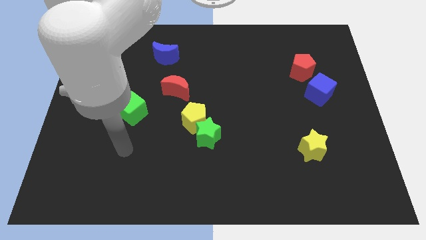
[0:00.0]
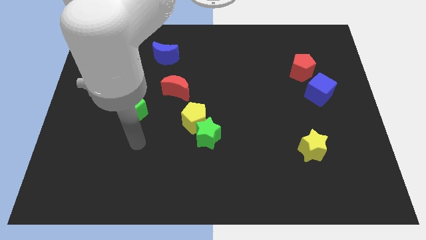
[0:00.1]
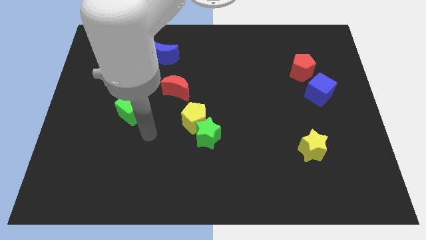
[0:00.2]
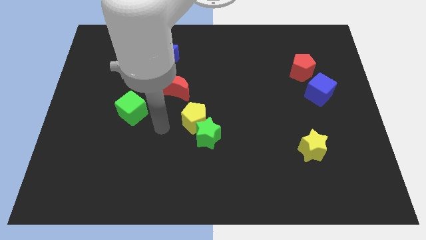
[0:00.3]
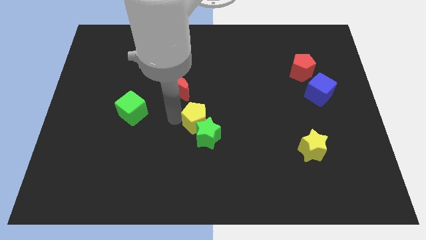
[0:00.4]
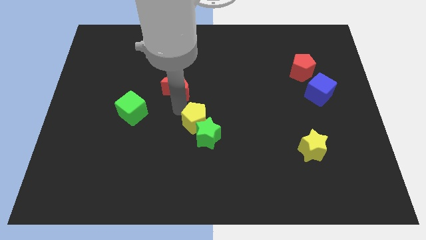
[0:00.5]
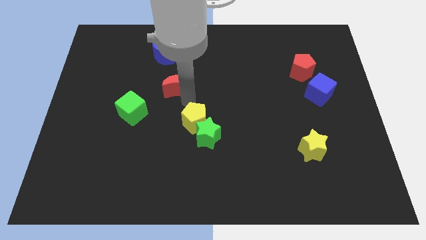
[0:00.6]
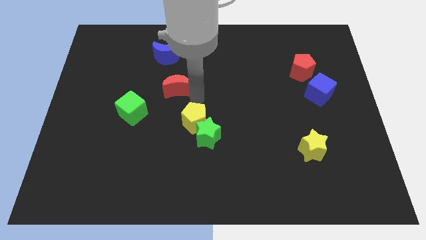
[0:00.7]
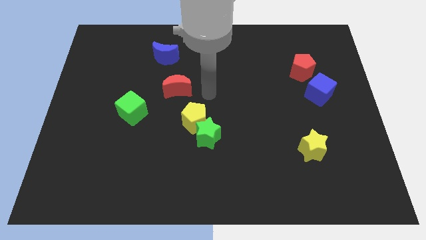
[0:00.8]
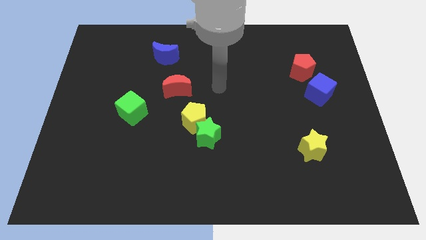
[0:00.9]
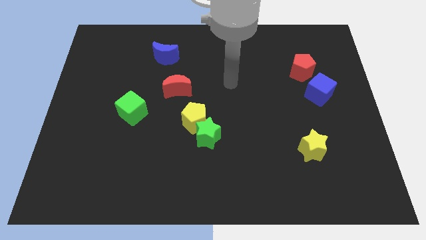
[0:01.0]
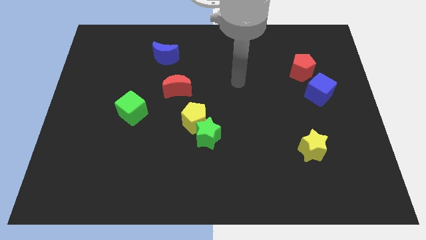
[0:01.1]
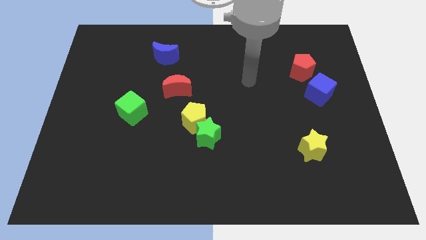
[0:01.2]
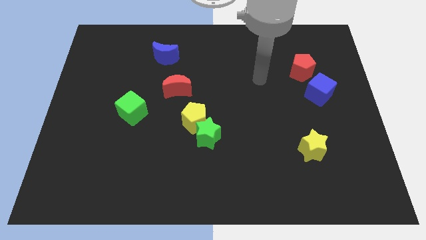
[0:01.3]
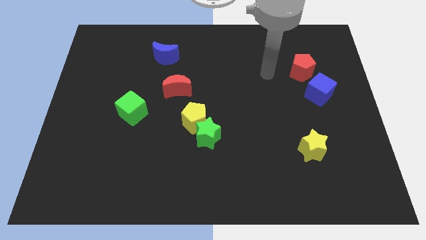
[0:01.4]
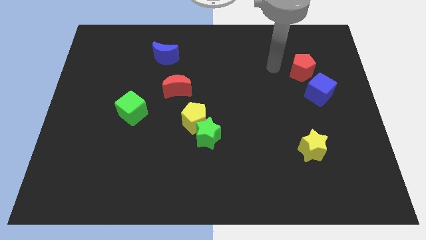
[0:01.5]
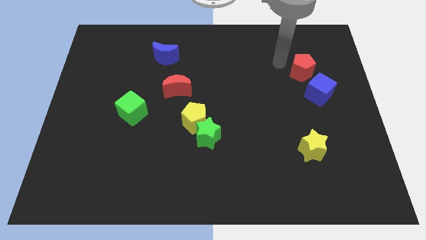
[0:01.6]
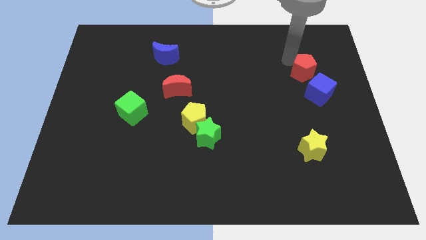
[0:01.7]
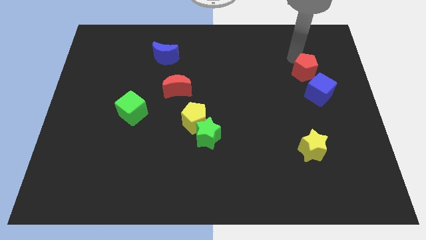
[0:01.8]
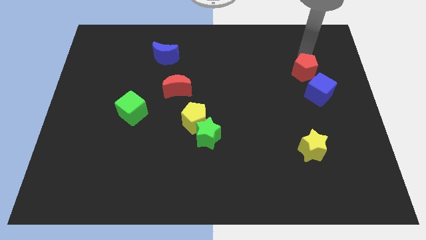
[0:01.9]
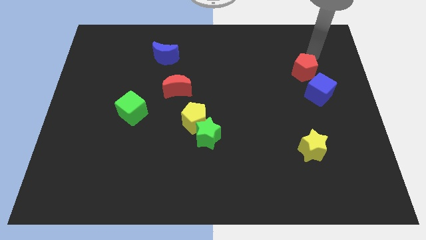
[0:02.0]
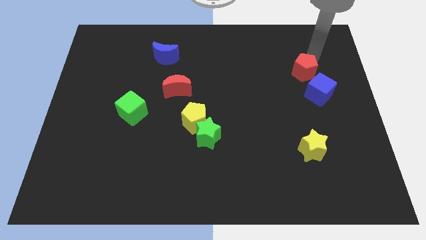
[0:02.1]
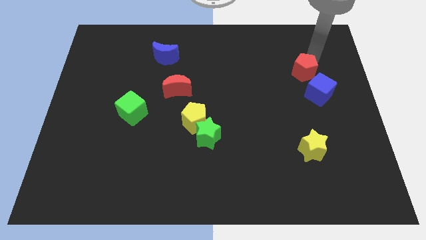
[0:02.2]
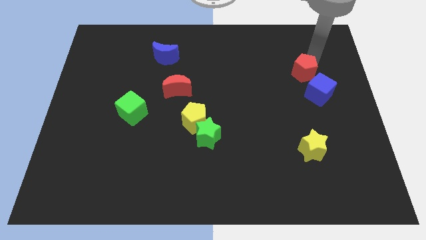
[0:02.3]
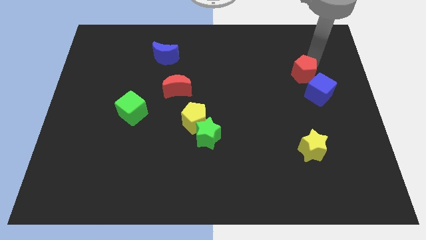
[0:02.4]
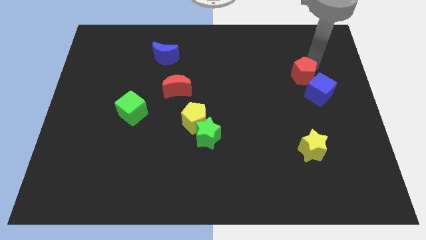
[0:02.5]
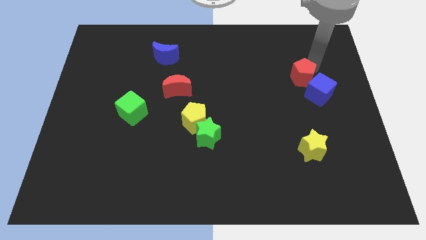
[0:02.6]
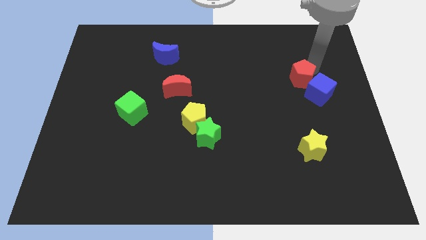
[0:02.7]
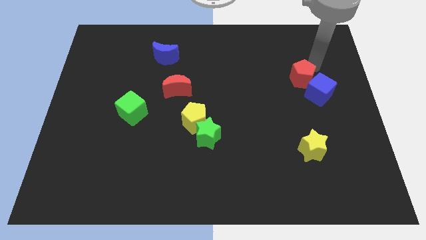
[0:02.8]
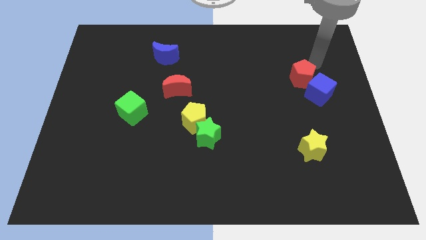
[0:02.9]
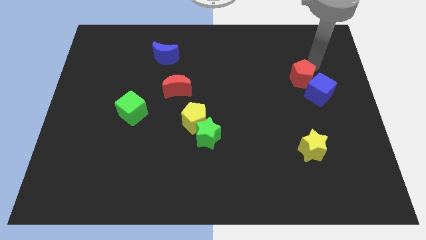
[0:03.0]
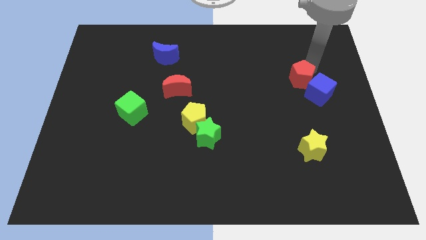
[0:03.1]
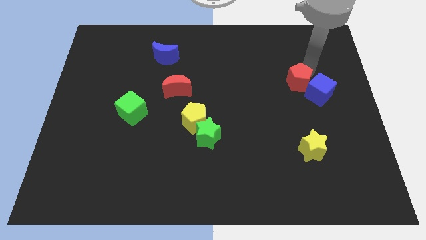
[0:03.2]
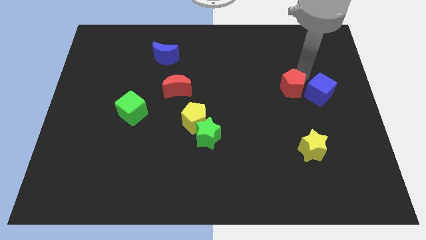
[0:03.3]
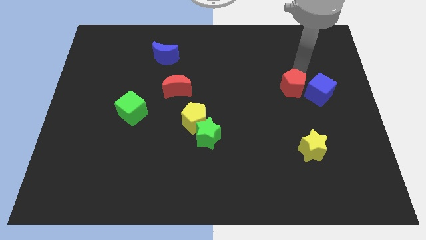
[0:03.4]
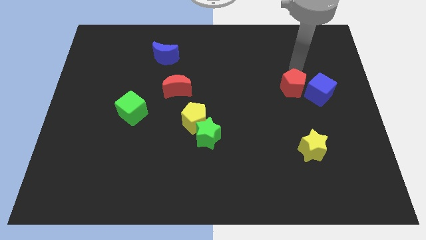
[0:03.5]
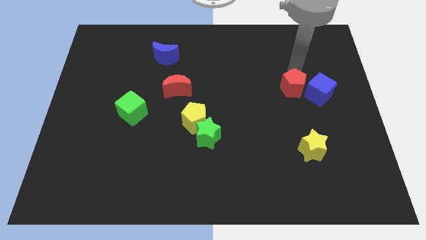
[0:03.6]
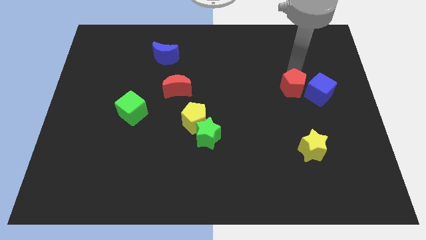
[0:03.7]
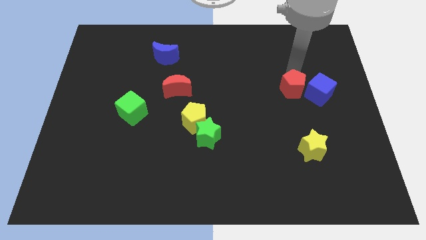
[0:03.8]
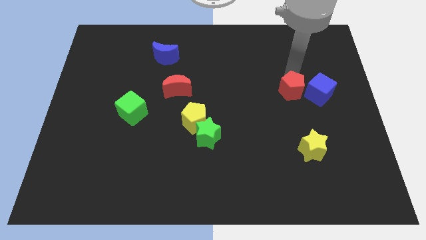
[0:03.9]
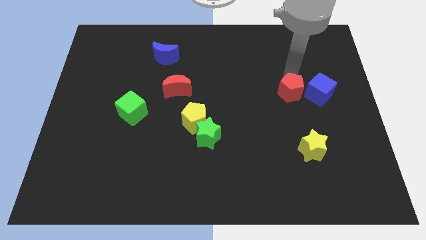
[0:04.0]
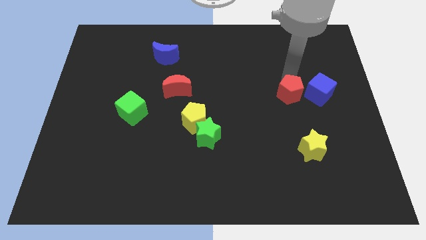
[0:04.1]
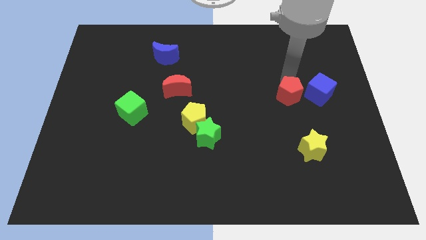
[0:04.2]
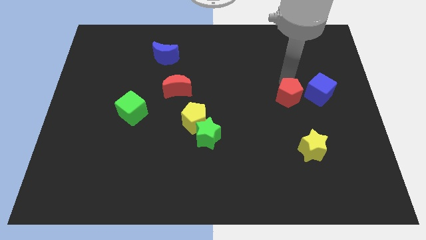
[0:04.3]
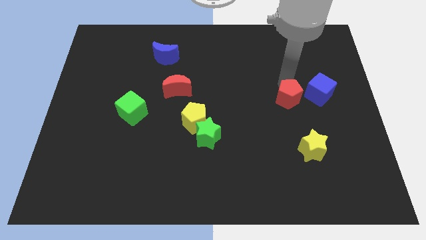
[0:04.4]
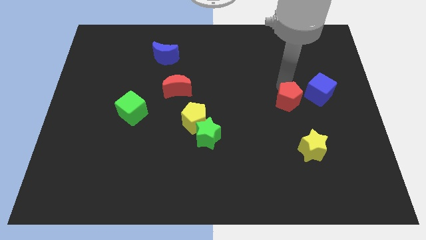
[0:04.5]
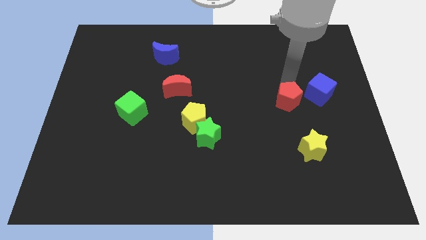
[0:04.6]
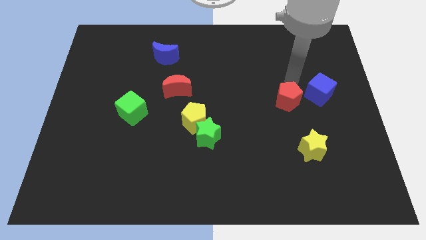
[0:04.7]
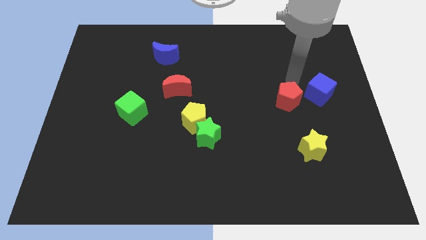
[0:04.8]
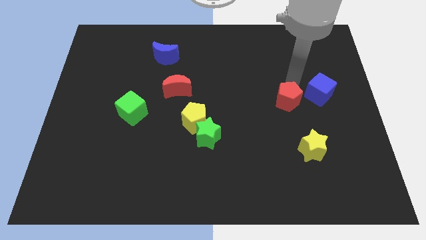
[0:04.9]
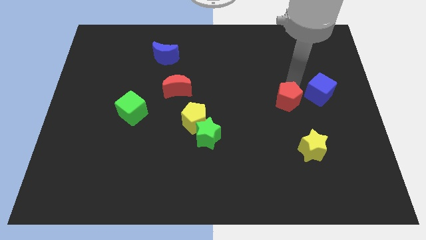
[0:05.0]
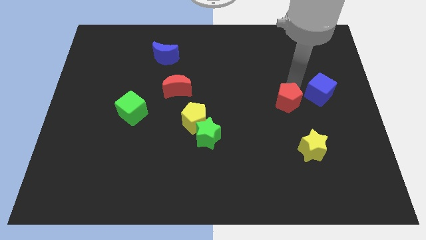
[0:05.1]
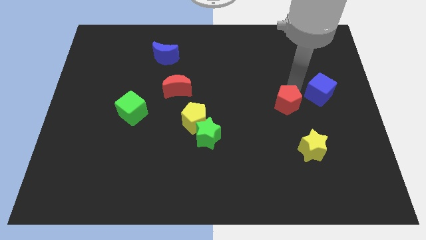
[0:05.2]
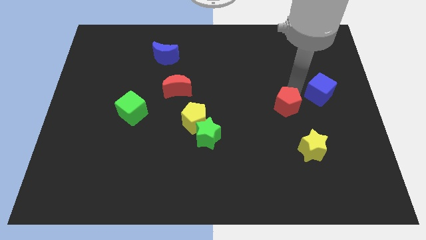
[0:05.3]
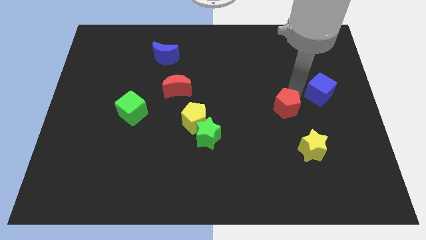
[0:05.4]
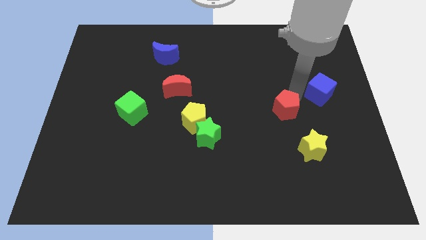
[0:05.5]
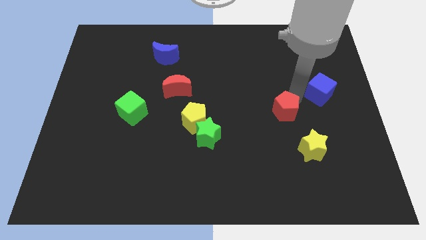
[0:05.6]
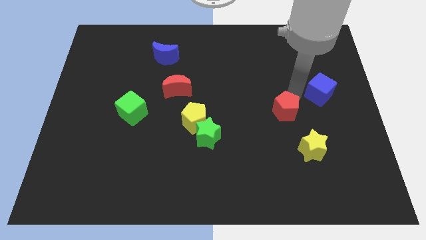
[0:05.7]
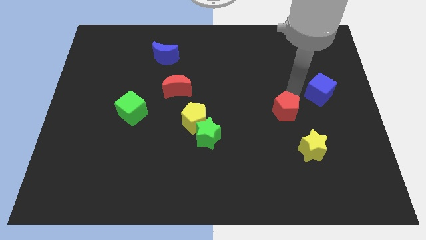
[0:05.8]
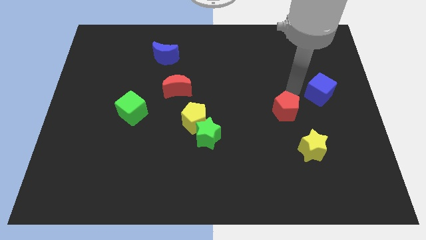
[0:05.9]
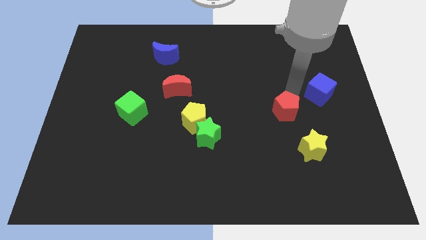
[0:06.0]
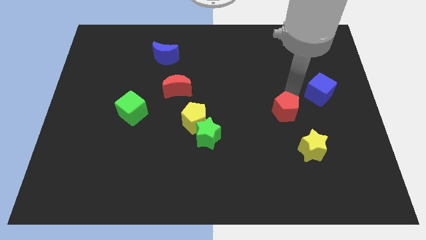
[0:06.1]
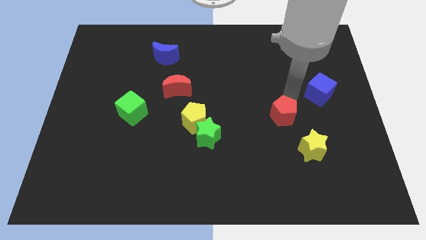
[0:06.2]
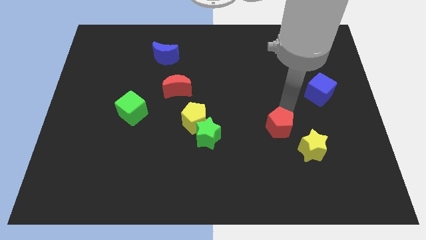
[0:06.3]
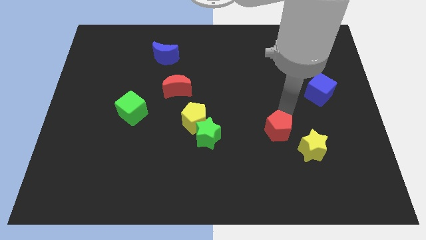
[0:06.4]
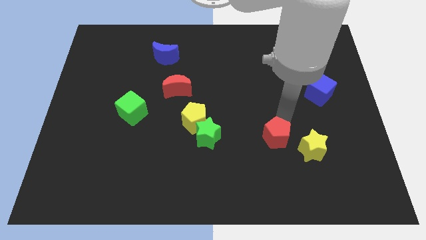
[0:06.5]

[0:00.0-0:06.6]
push the red pentagon just left of the yellow star

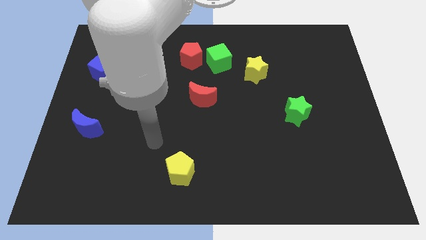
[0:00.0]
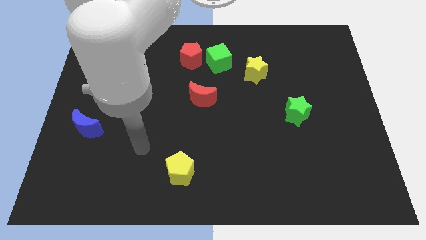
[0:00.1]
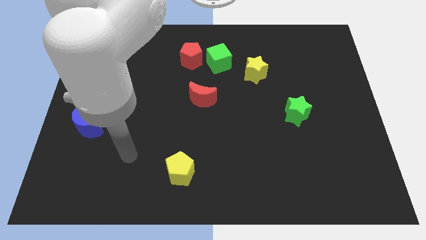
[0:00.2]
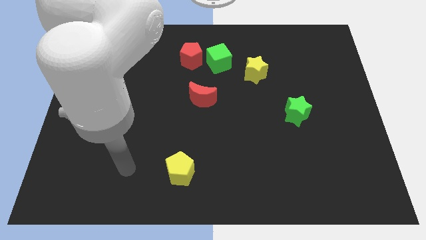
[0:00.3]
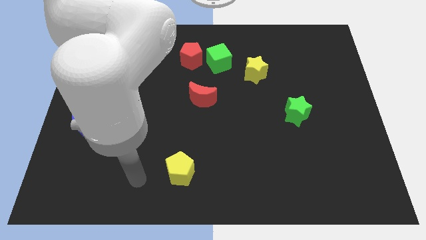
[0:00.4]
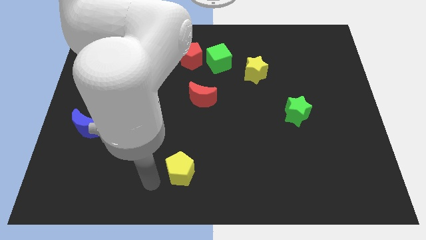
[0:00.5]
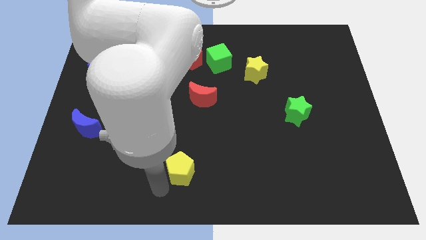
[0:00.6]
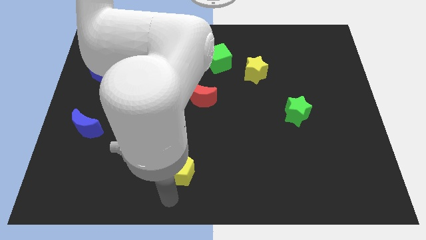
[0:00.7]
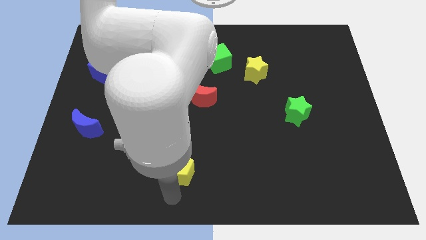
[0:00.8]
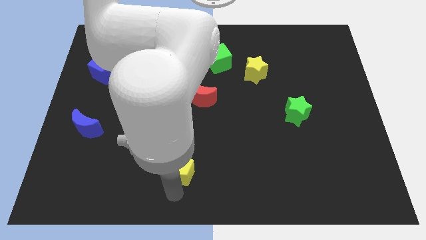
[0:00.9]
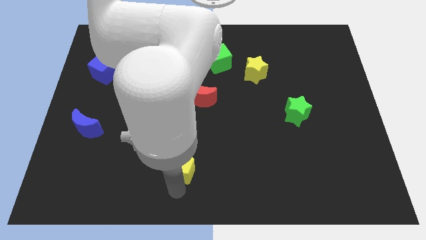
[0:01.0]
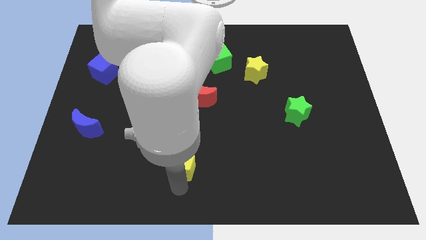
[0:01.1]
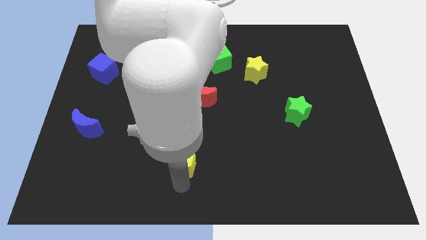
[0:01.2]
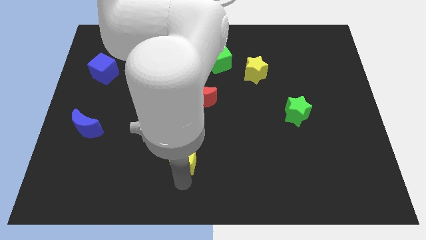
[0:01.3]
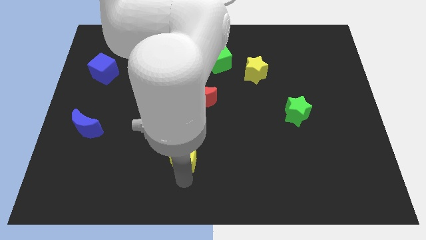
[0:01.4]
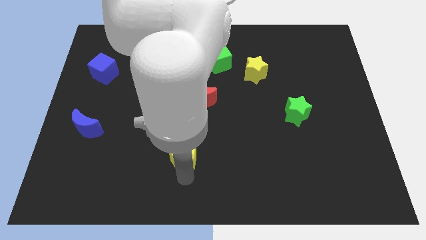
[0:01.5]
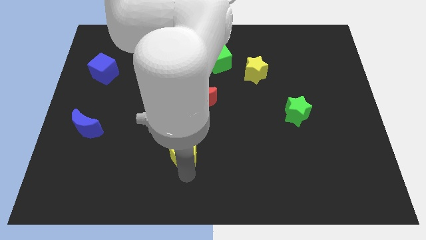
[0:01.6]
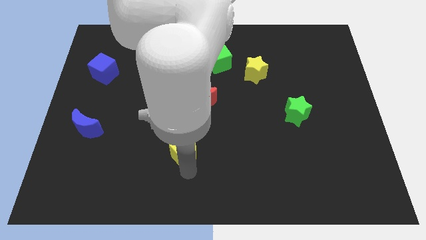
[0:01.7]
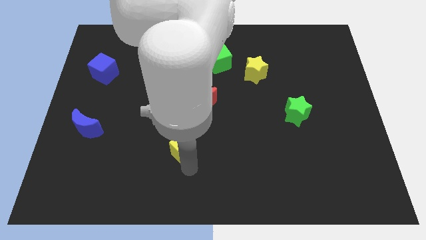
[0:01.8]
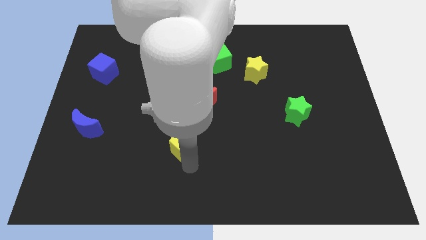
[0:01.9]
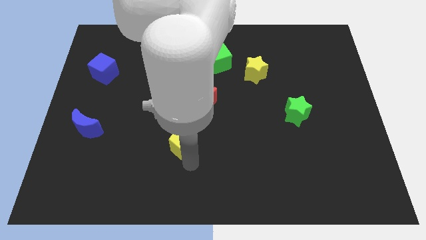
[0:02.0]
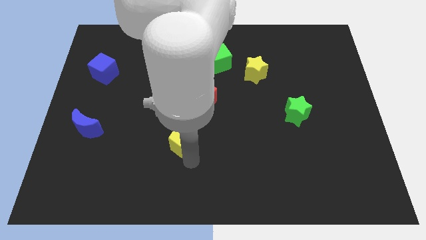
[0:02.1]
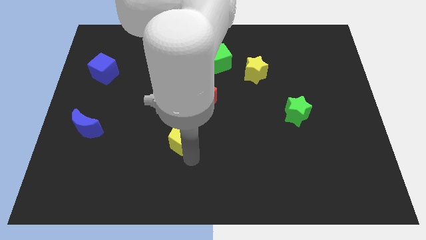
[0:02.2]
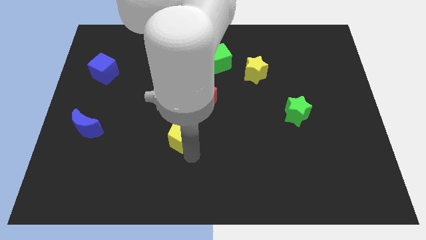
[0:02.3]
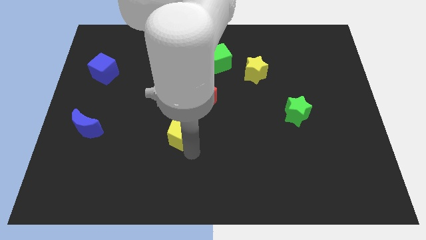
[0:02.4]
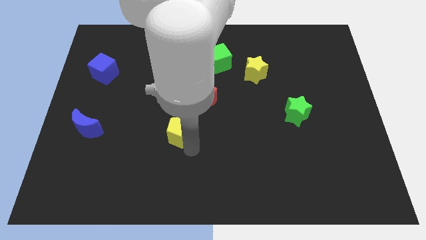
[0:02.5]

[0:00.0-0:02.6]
put the yellow pentagon to the bottom left of the red moon
